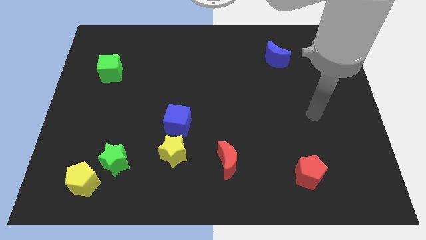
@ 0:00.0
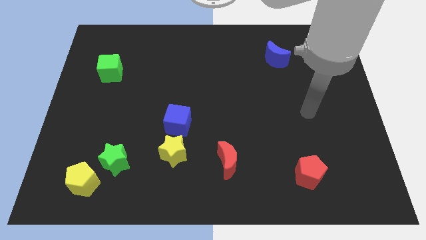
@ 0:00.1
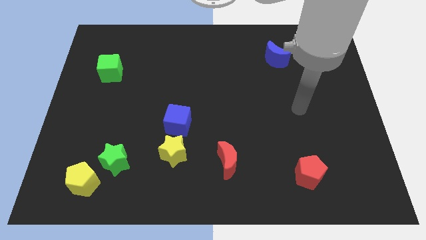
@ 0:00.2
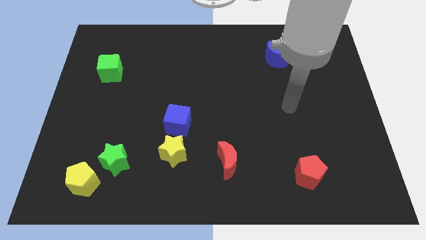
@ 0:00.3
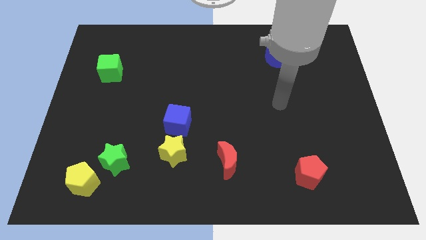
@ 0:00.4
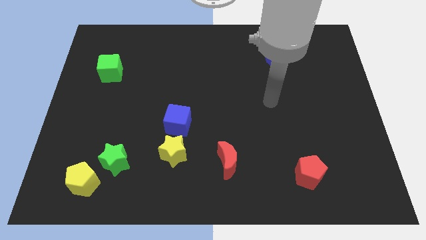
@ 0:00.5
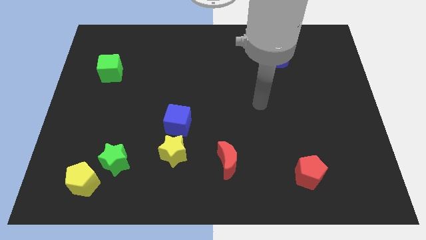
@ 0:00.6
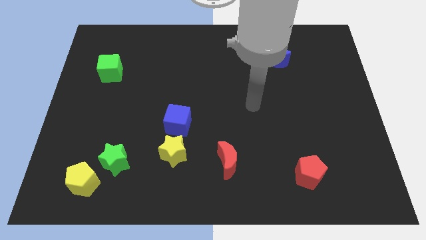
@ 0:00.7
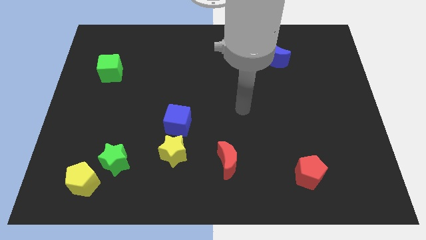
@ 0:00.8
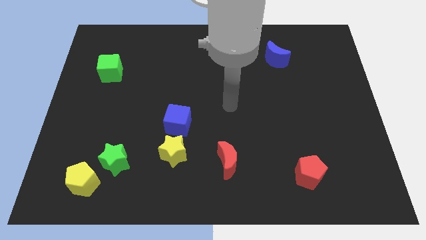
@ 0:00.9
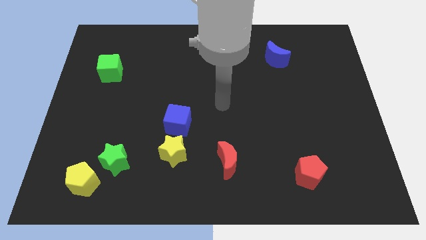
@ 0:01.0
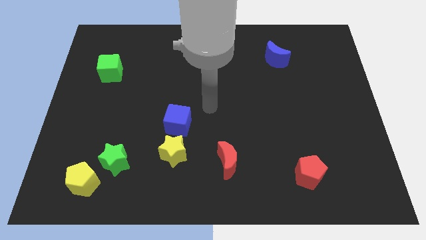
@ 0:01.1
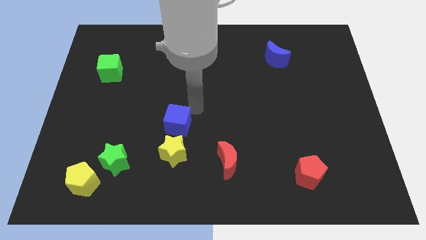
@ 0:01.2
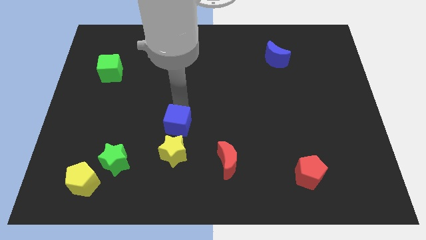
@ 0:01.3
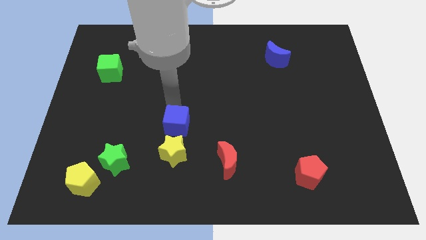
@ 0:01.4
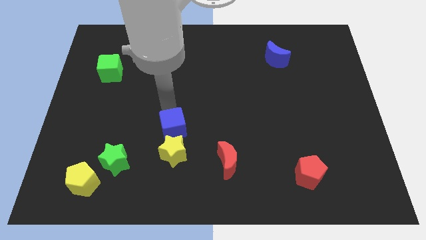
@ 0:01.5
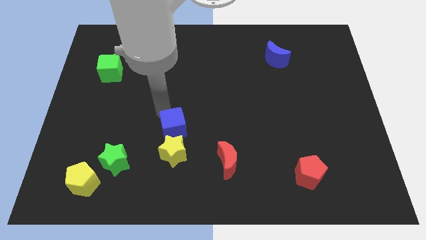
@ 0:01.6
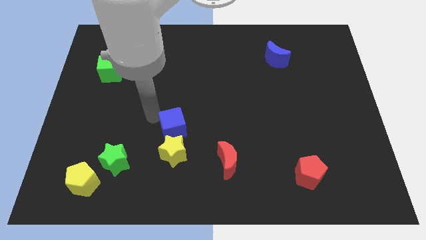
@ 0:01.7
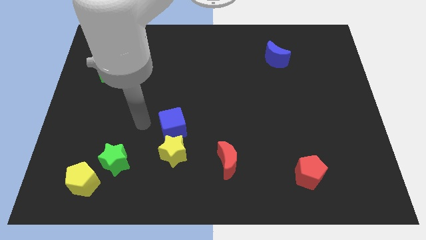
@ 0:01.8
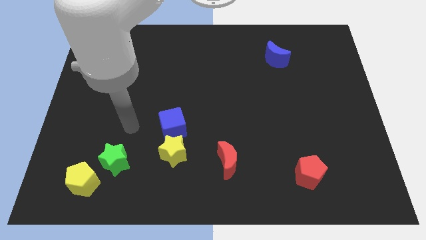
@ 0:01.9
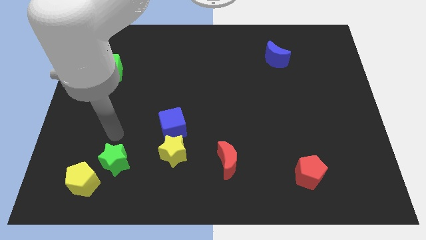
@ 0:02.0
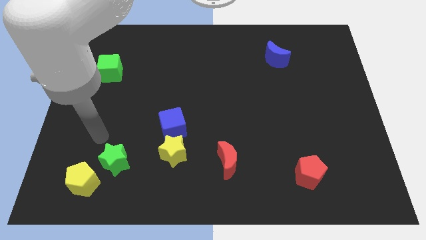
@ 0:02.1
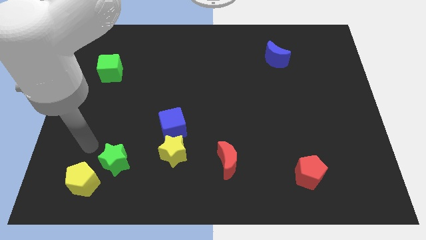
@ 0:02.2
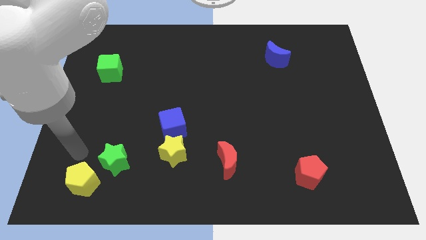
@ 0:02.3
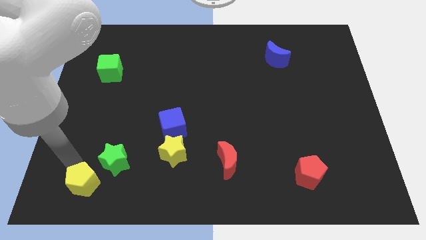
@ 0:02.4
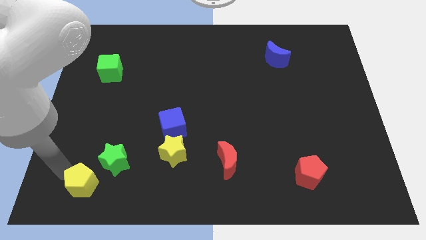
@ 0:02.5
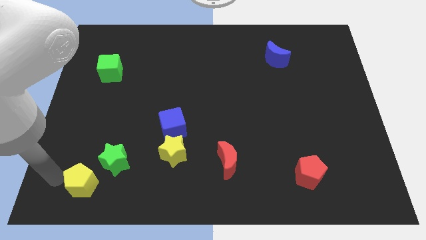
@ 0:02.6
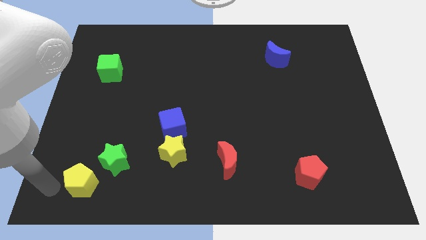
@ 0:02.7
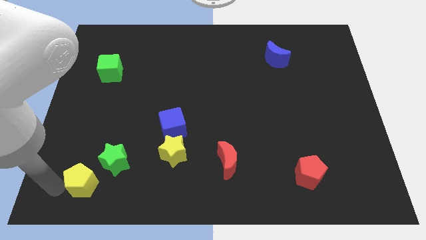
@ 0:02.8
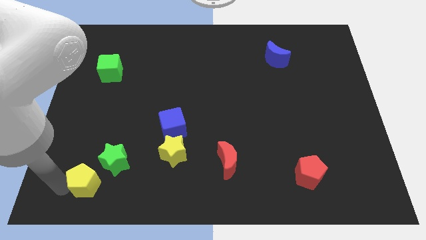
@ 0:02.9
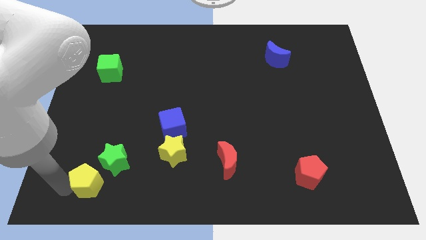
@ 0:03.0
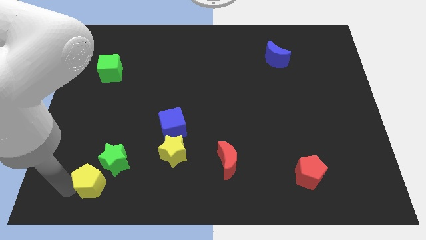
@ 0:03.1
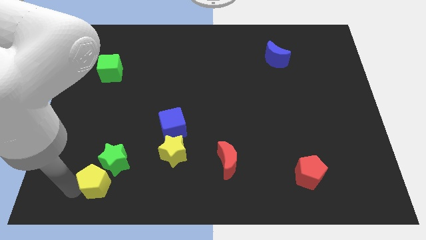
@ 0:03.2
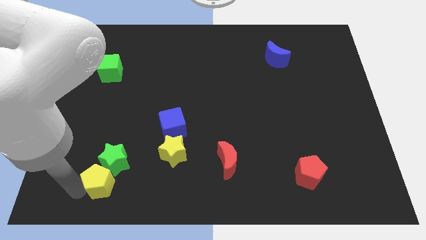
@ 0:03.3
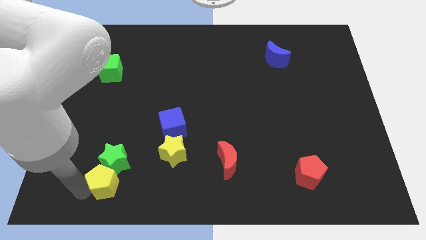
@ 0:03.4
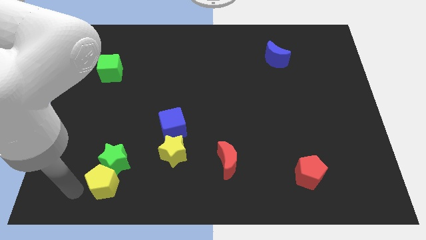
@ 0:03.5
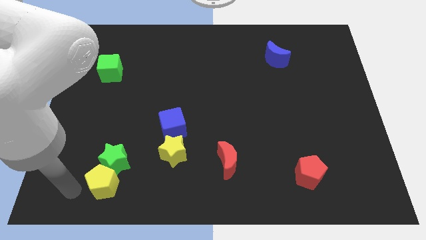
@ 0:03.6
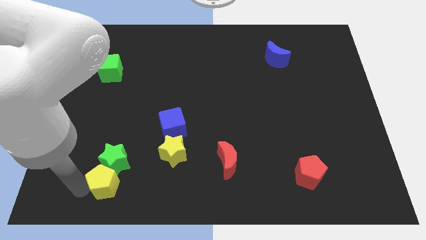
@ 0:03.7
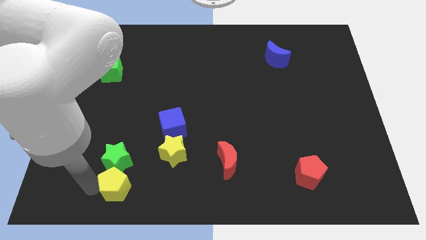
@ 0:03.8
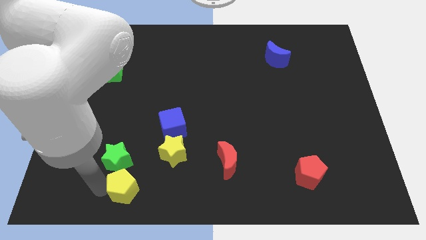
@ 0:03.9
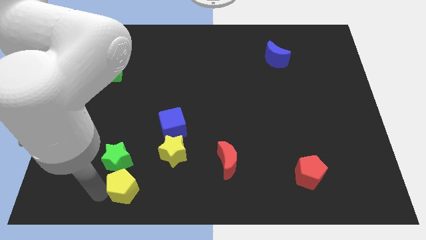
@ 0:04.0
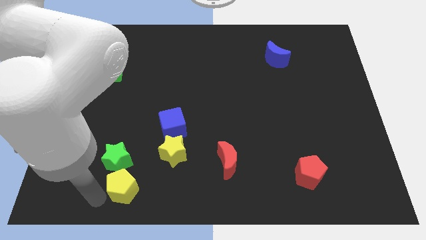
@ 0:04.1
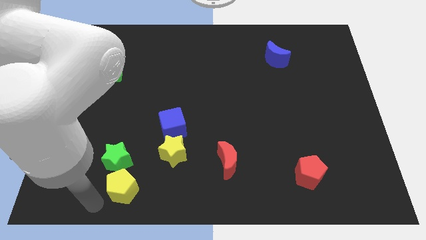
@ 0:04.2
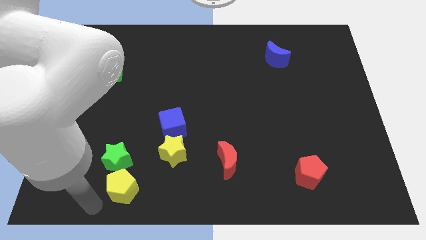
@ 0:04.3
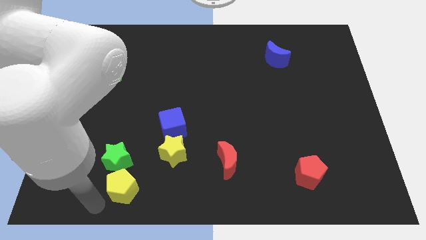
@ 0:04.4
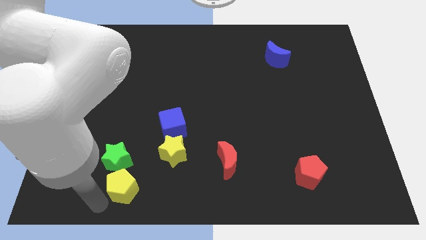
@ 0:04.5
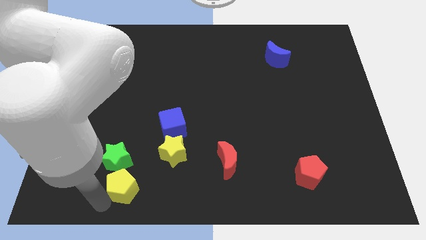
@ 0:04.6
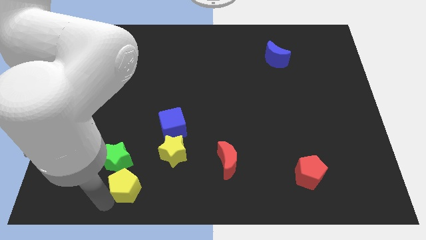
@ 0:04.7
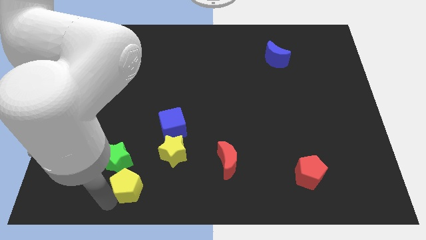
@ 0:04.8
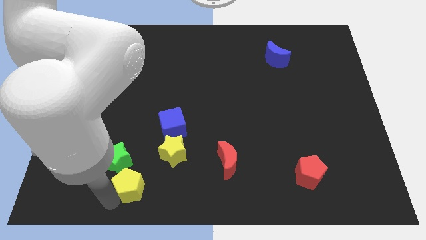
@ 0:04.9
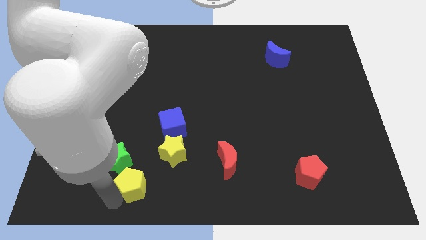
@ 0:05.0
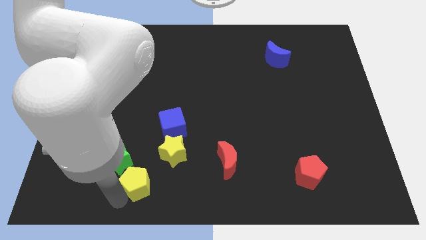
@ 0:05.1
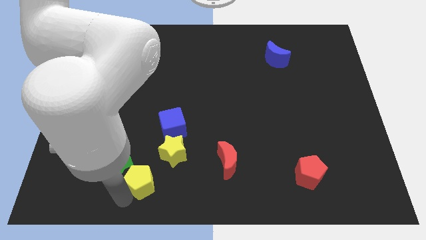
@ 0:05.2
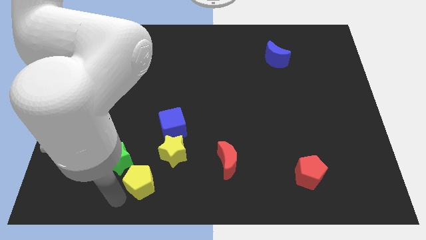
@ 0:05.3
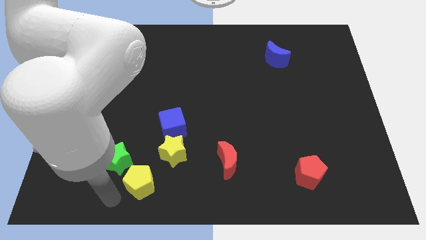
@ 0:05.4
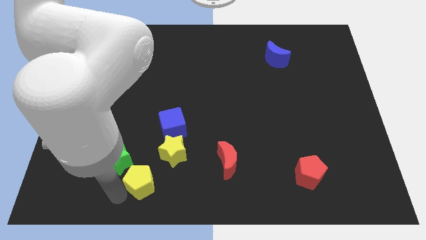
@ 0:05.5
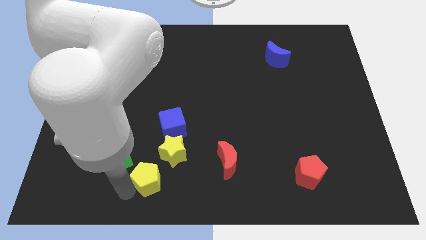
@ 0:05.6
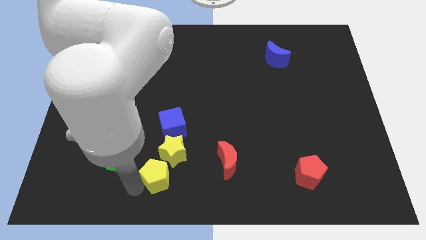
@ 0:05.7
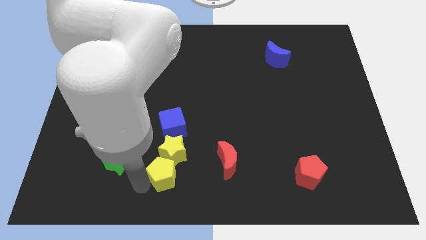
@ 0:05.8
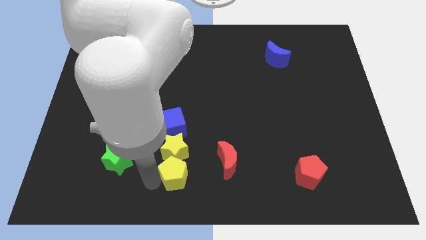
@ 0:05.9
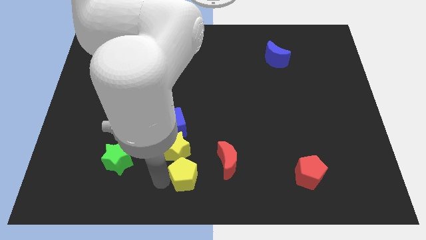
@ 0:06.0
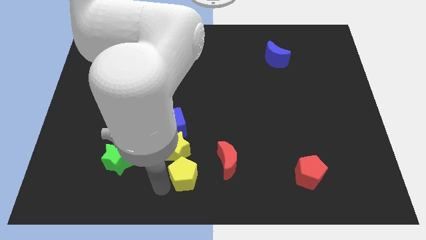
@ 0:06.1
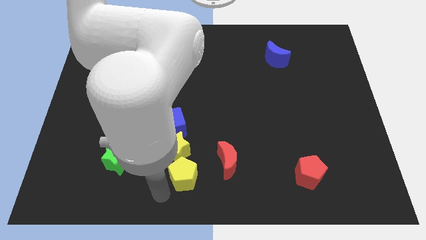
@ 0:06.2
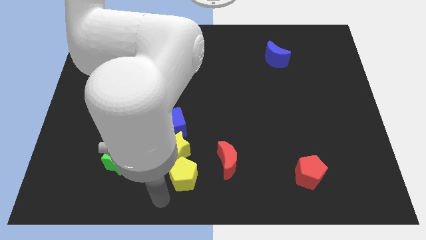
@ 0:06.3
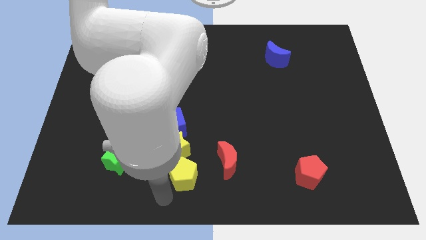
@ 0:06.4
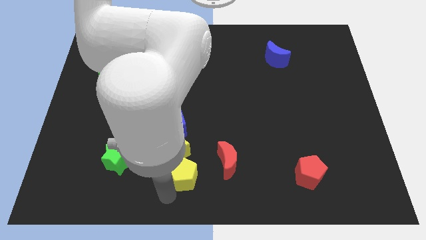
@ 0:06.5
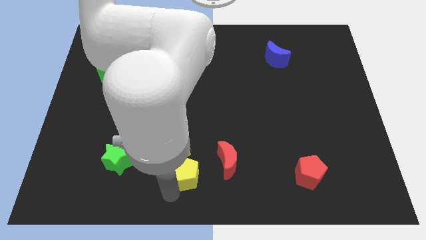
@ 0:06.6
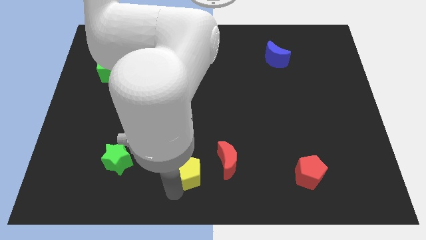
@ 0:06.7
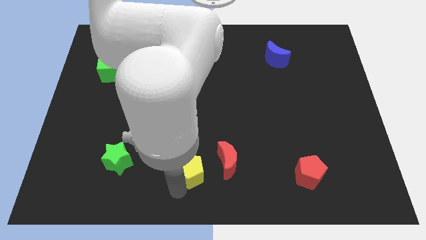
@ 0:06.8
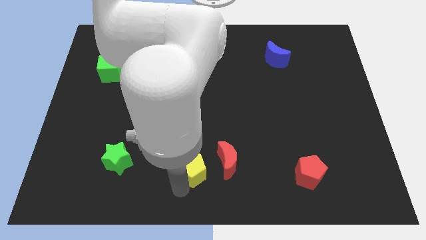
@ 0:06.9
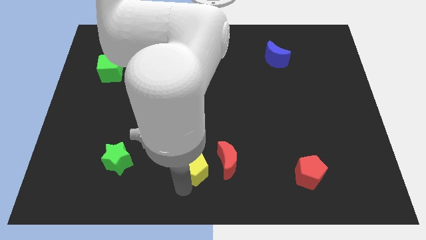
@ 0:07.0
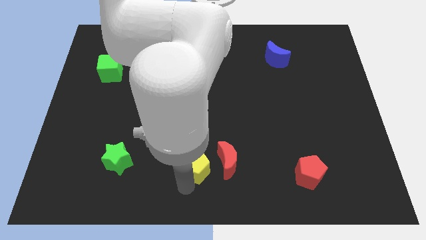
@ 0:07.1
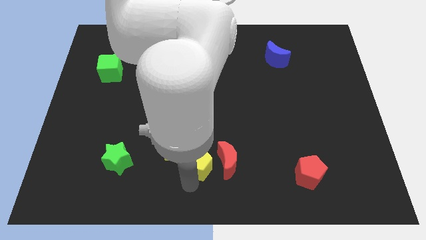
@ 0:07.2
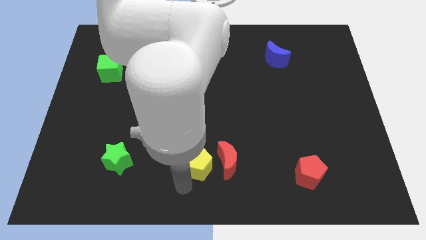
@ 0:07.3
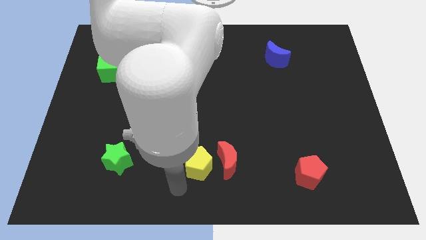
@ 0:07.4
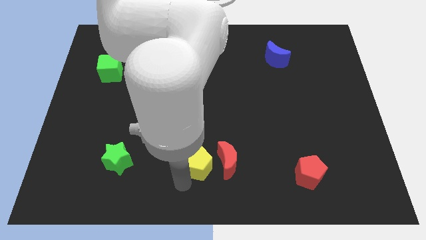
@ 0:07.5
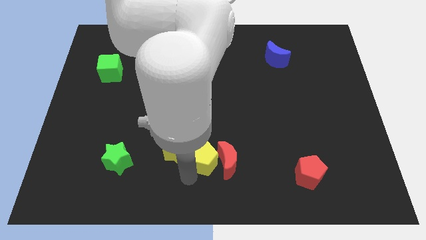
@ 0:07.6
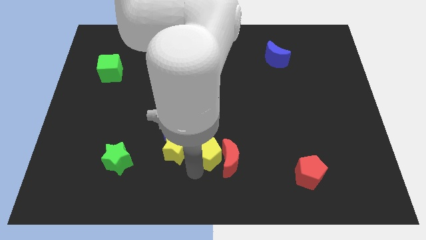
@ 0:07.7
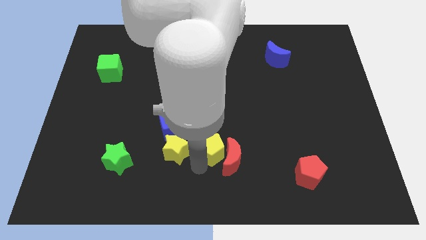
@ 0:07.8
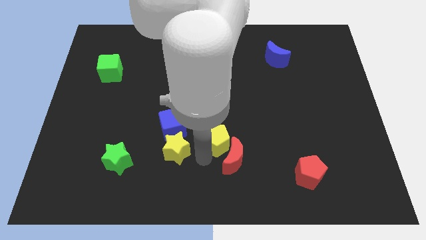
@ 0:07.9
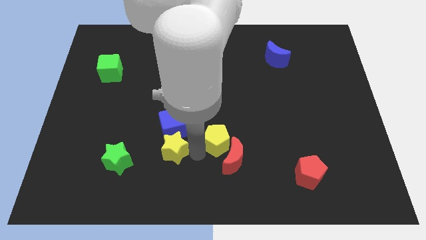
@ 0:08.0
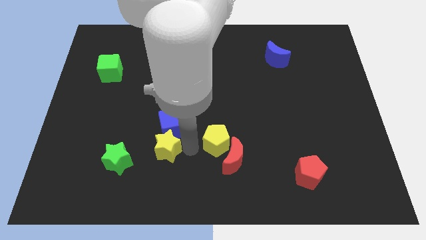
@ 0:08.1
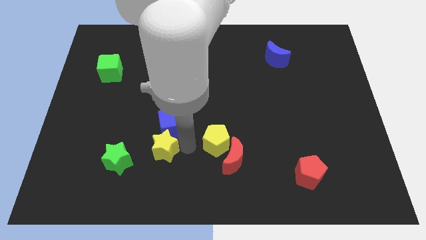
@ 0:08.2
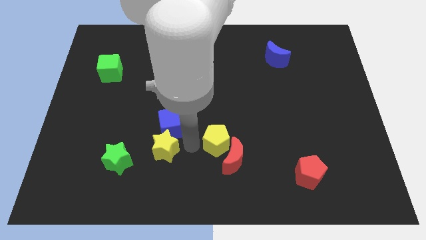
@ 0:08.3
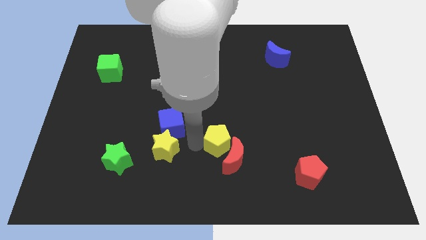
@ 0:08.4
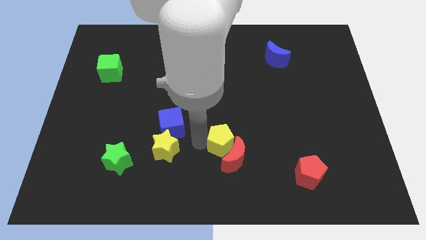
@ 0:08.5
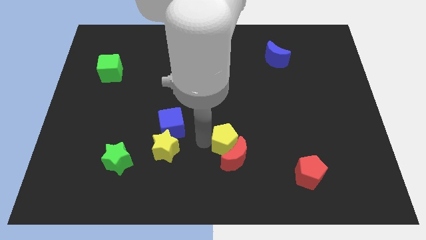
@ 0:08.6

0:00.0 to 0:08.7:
move the yellow pentagon to the top right side of the red moon
